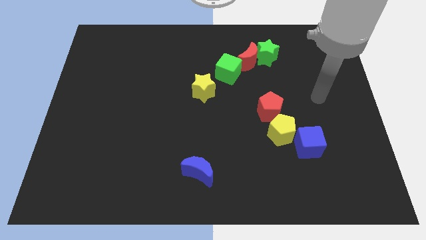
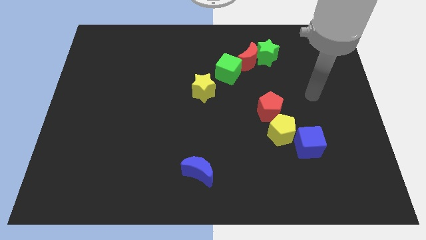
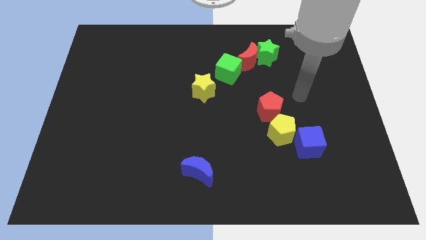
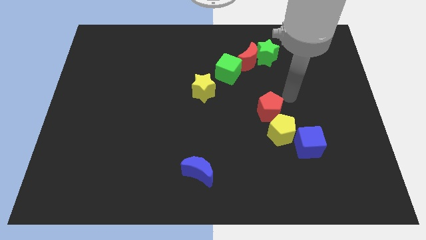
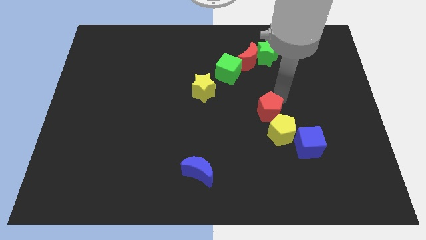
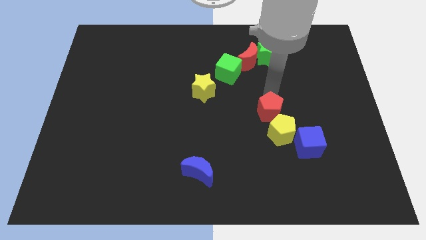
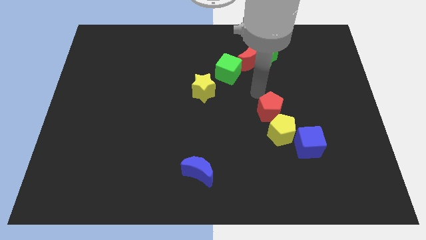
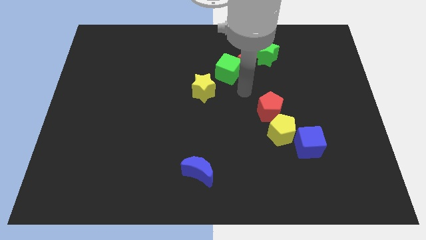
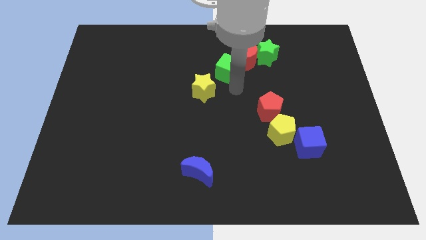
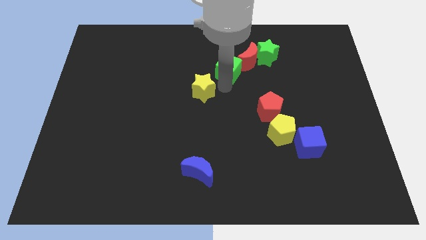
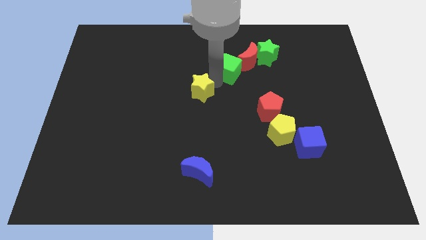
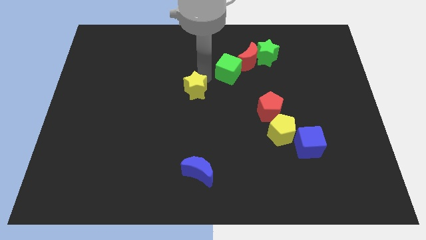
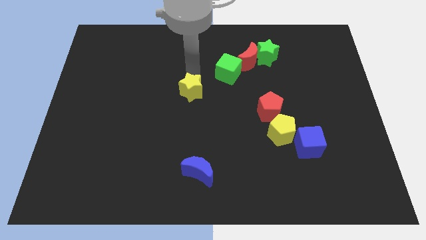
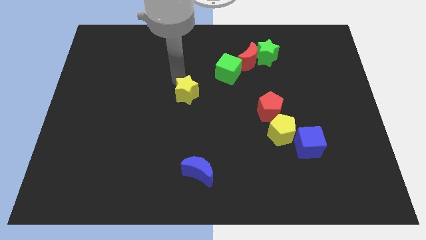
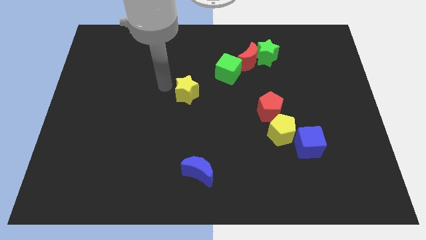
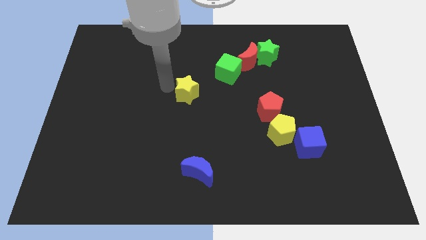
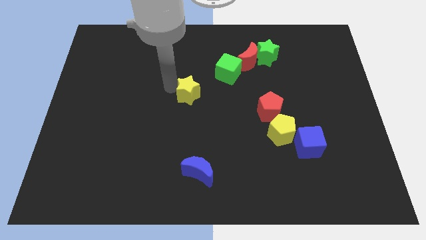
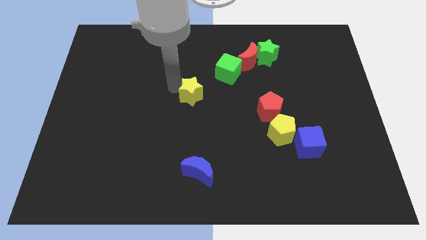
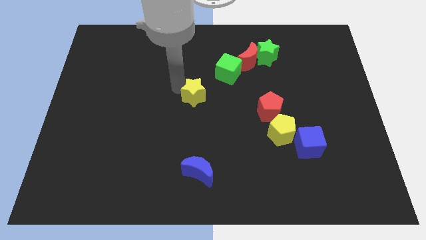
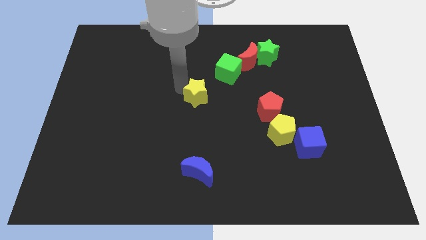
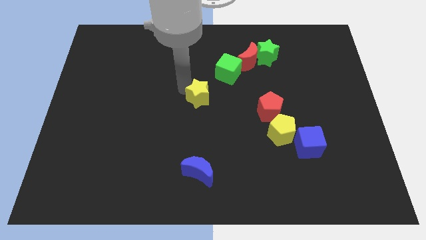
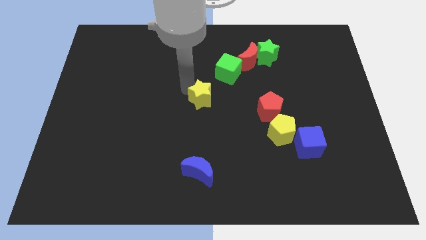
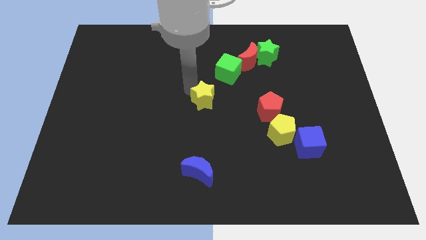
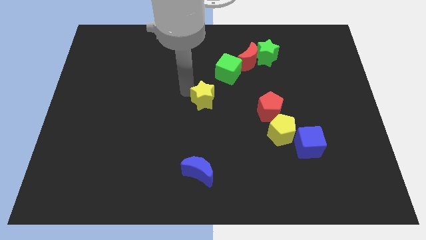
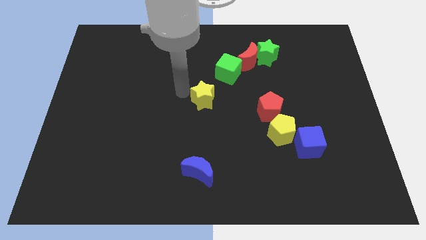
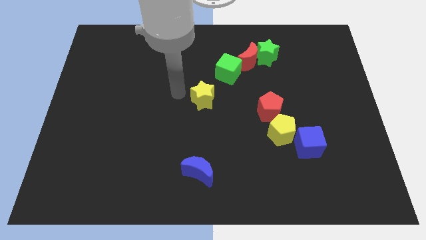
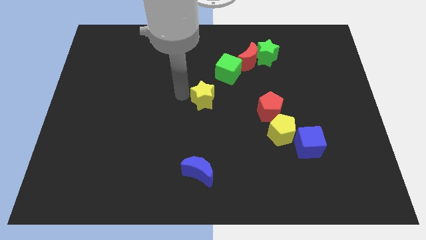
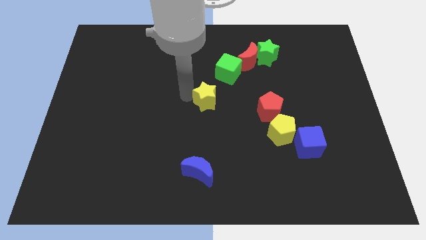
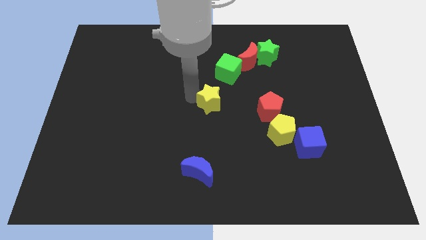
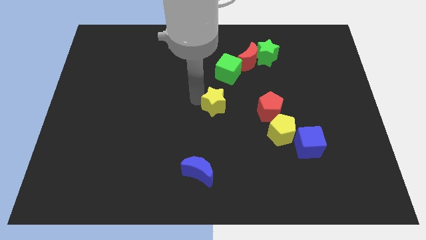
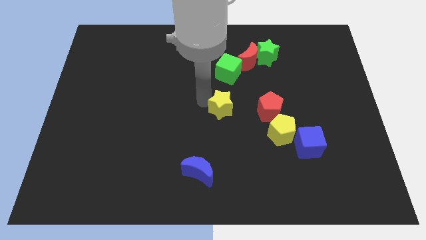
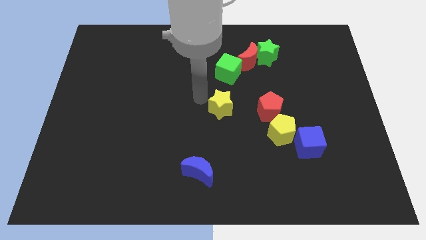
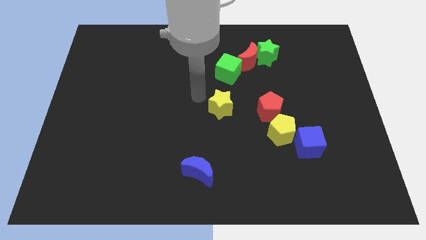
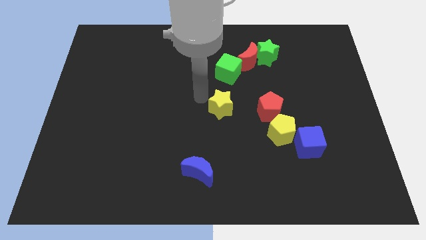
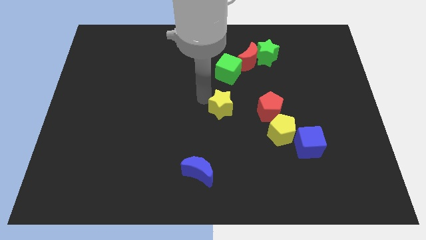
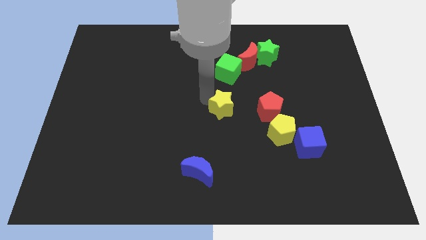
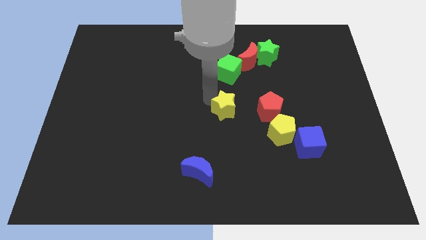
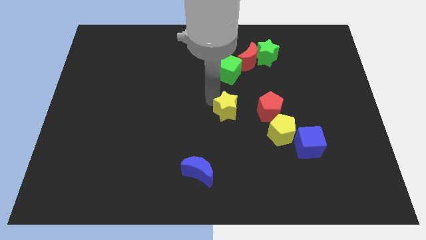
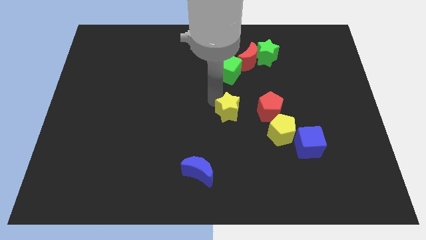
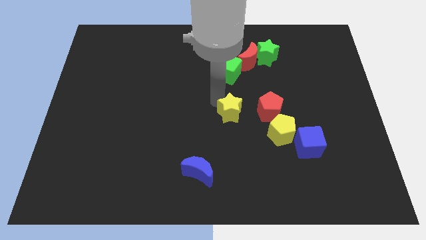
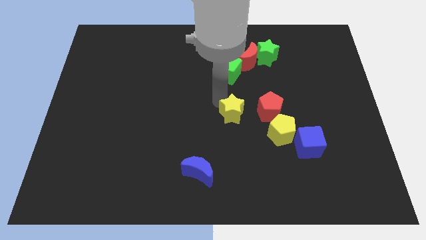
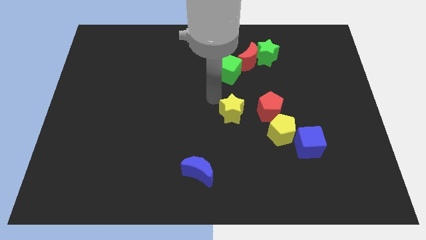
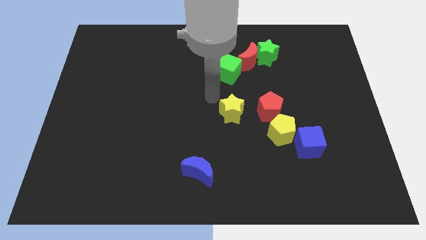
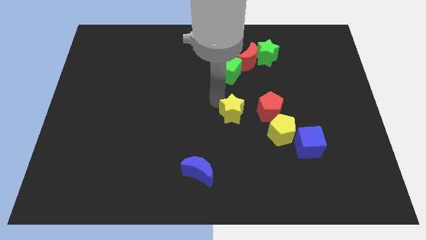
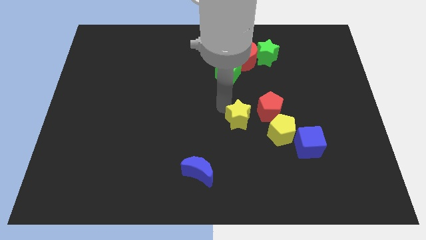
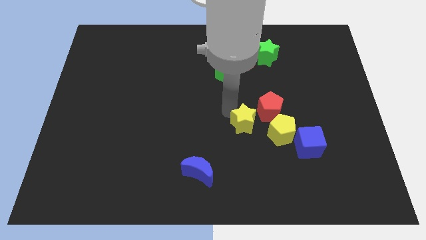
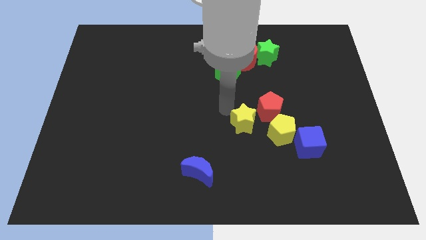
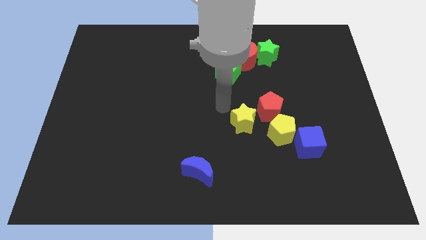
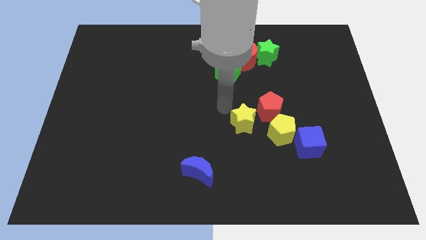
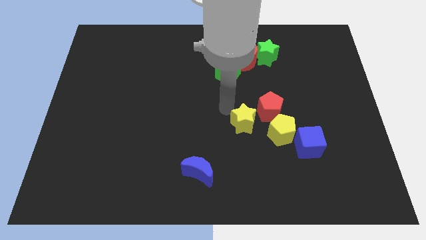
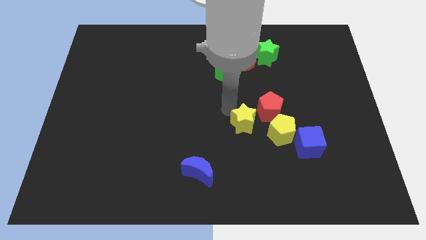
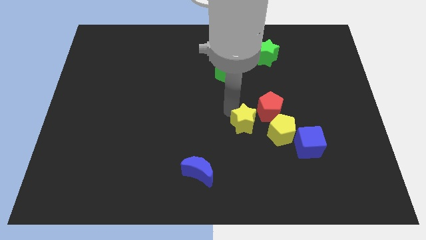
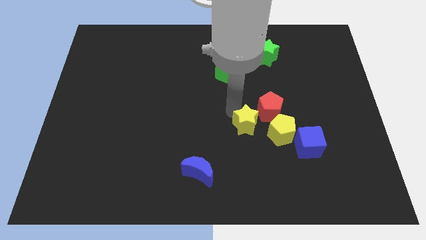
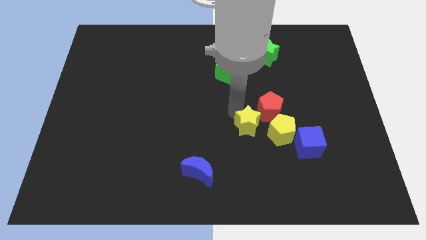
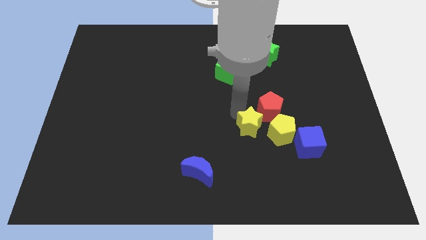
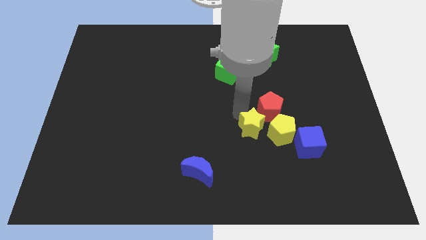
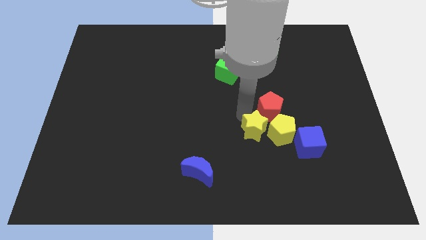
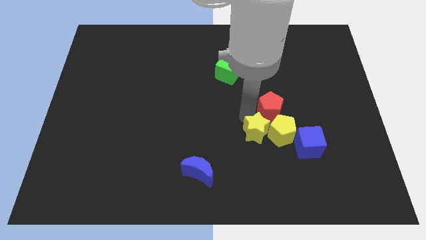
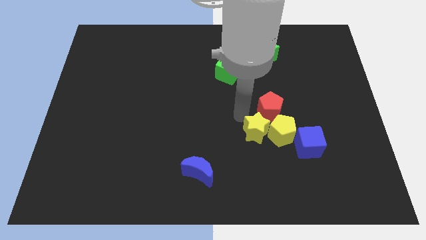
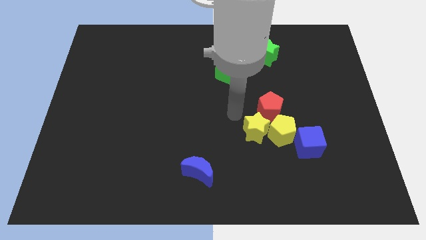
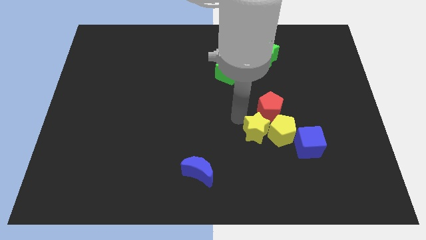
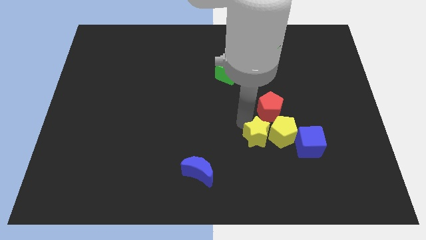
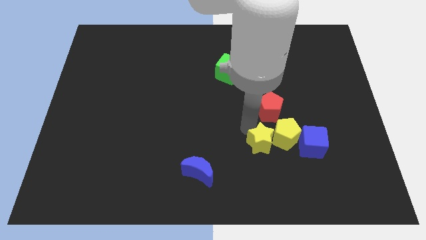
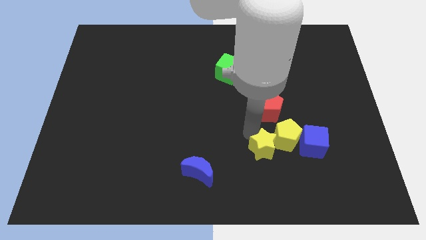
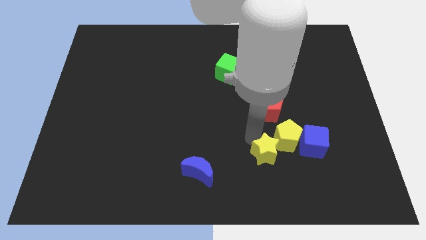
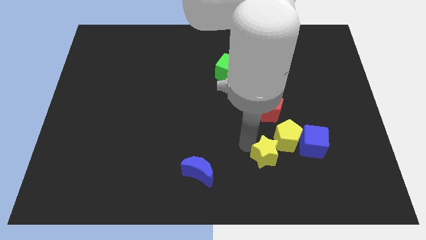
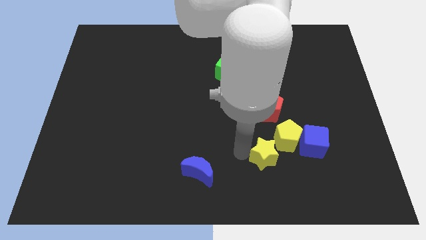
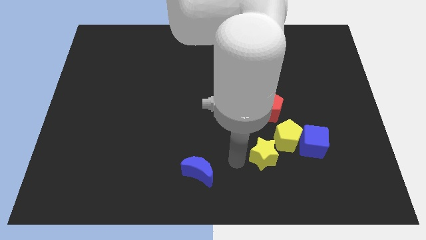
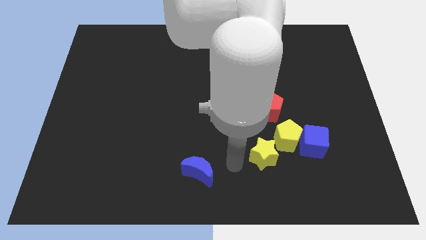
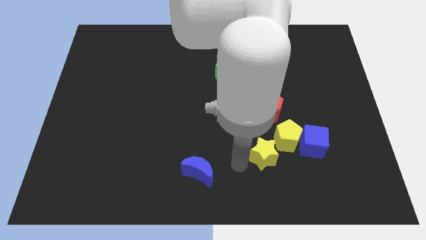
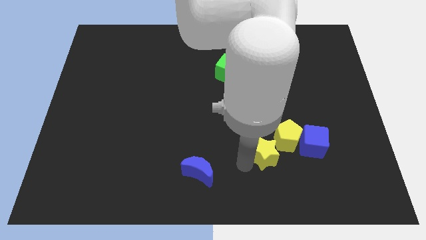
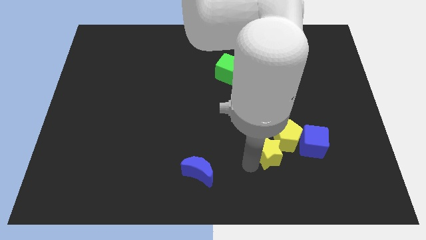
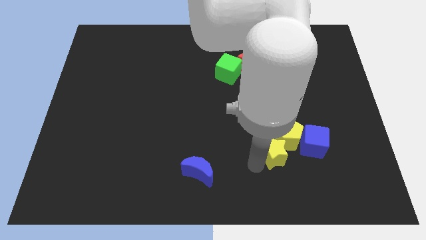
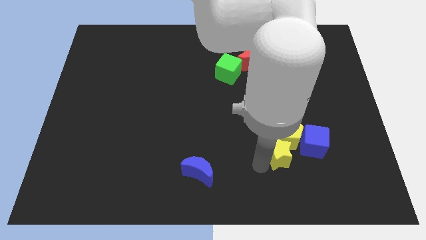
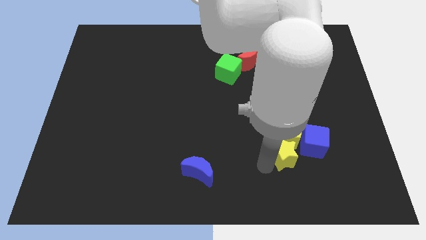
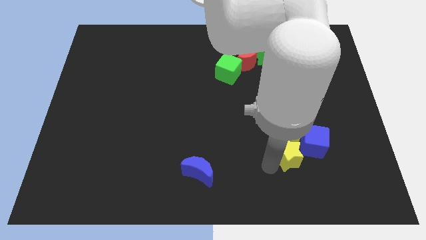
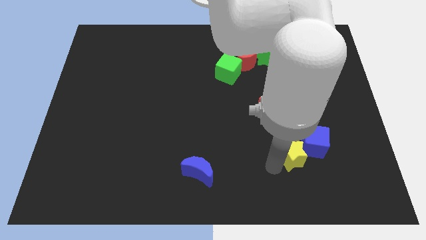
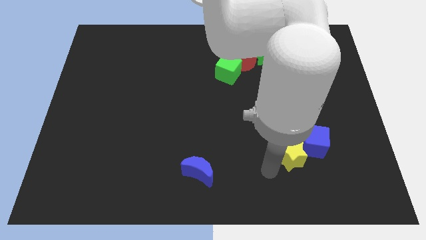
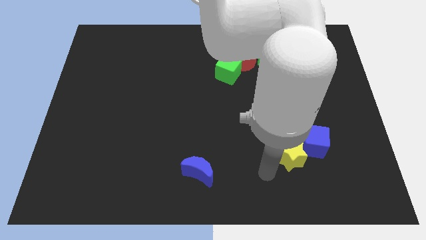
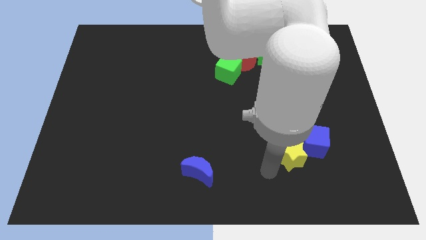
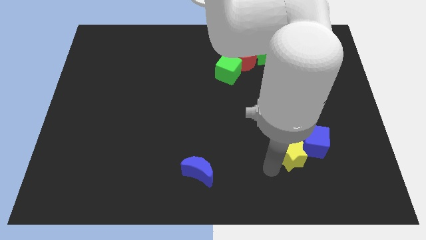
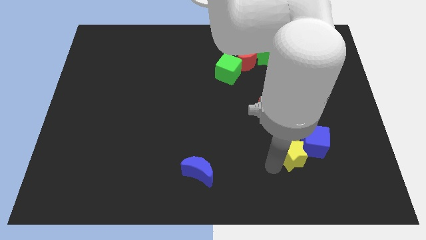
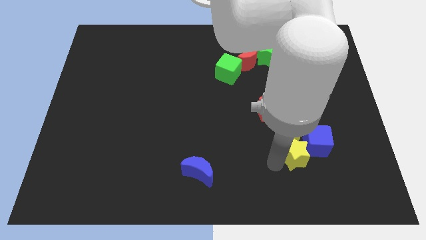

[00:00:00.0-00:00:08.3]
slide the yellow star close to the blue cube
